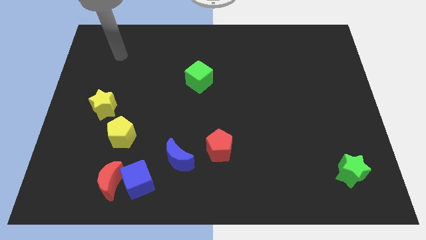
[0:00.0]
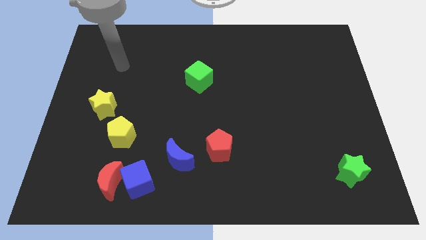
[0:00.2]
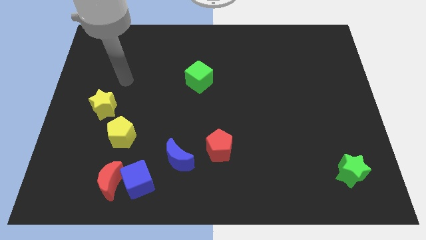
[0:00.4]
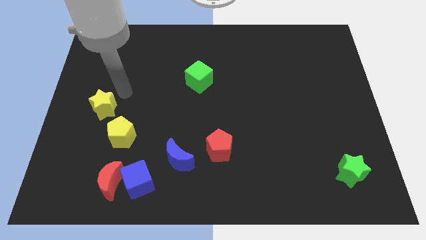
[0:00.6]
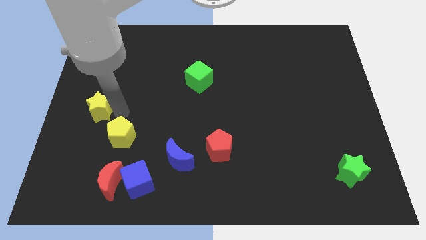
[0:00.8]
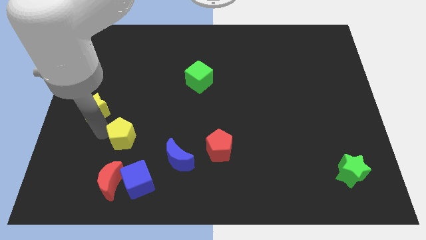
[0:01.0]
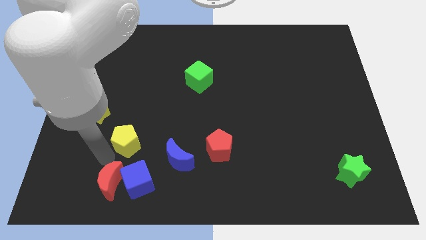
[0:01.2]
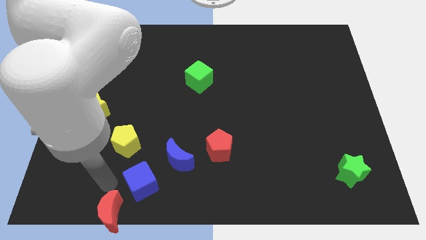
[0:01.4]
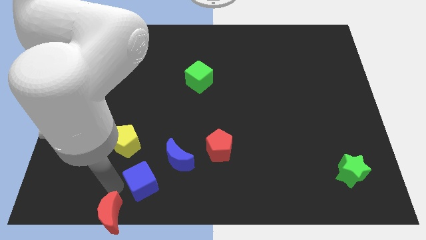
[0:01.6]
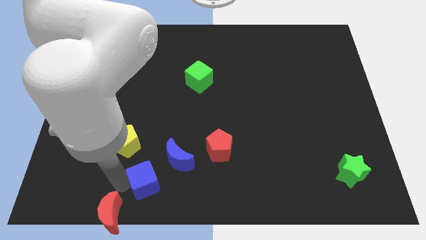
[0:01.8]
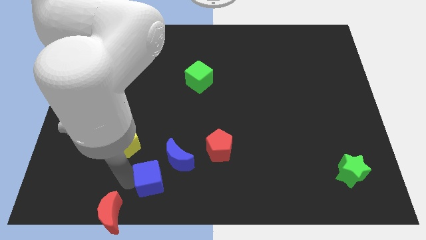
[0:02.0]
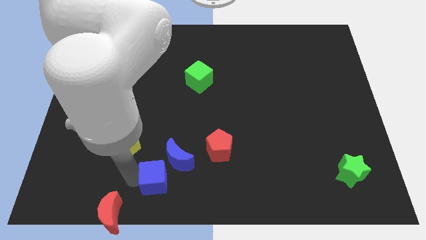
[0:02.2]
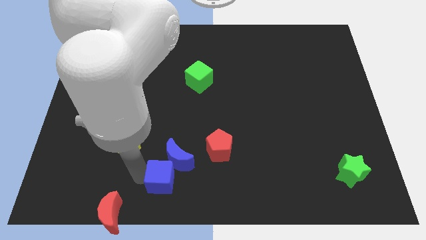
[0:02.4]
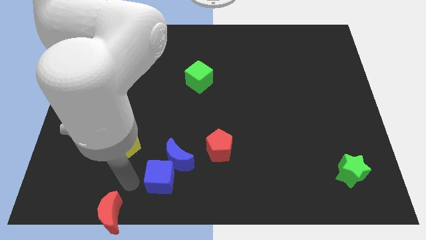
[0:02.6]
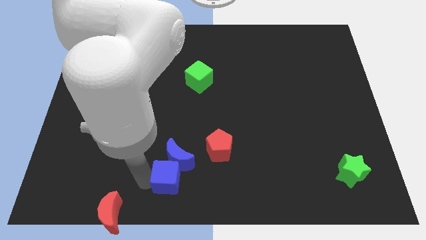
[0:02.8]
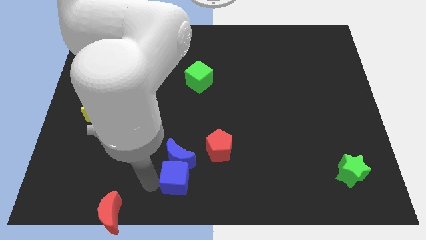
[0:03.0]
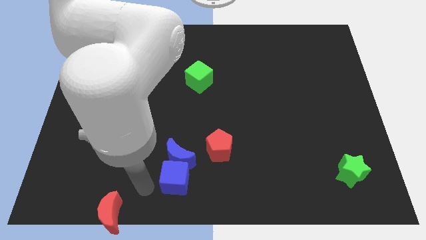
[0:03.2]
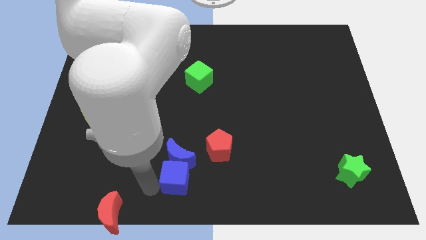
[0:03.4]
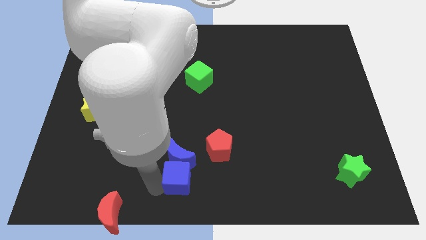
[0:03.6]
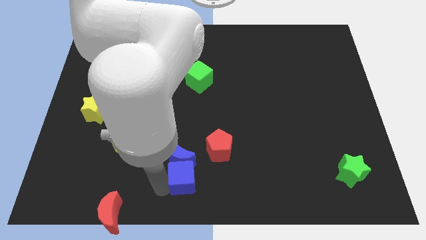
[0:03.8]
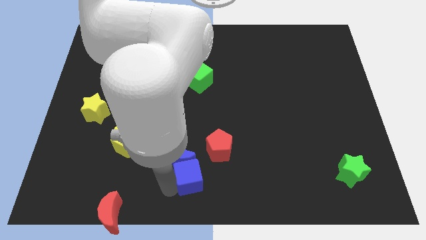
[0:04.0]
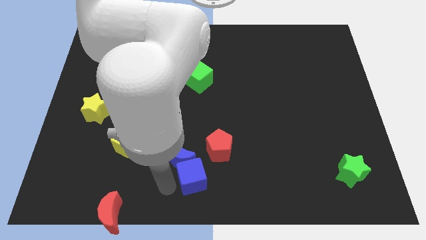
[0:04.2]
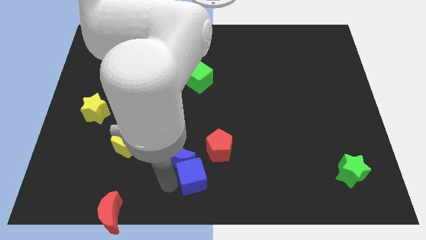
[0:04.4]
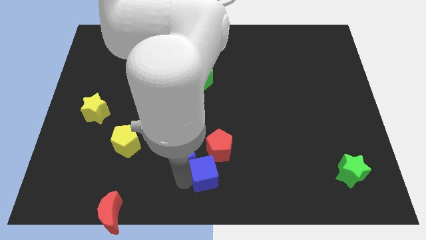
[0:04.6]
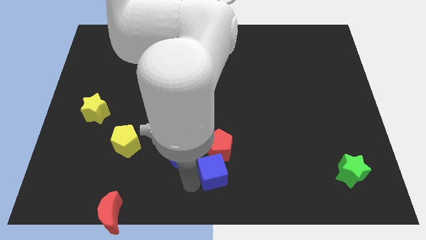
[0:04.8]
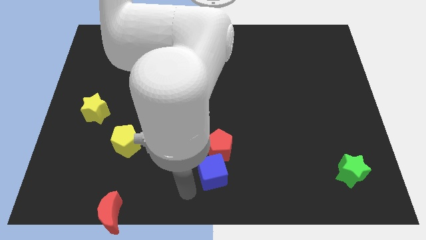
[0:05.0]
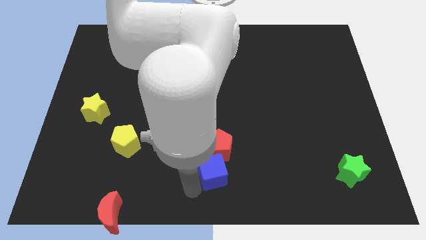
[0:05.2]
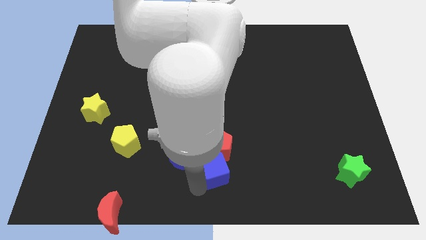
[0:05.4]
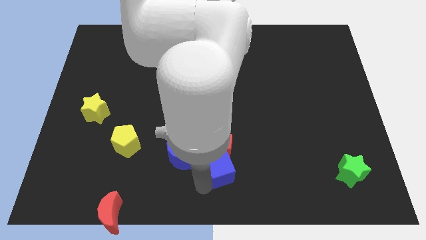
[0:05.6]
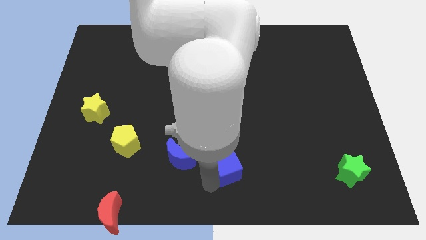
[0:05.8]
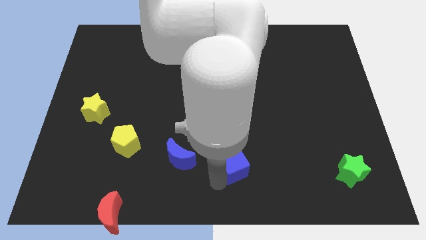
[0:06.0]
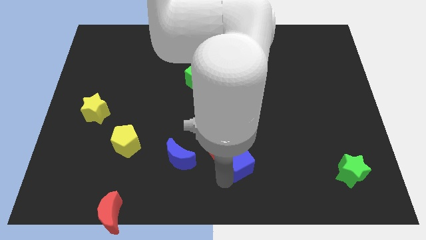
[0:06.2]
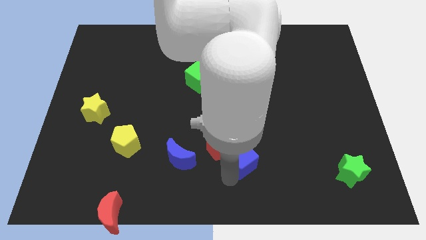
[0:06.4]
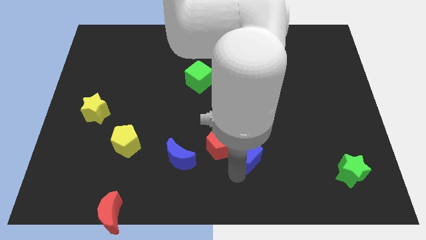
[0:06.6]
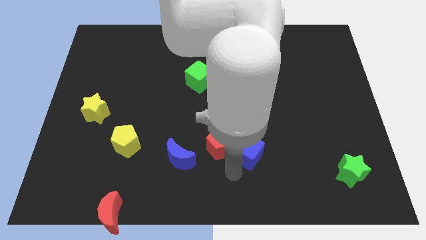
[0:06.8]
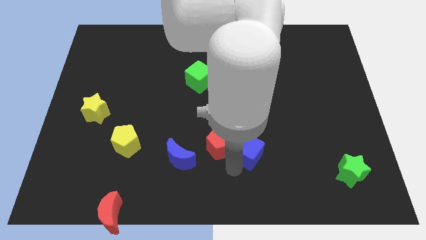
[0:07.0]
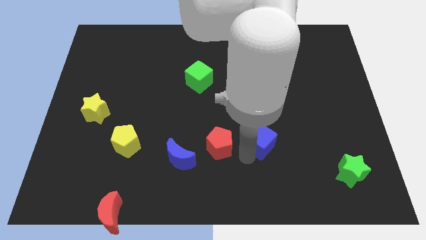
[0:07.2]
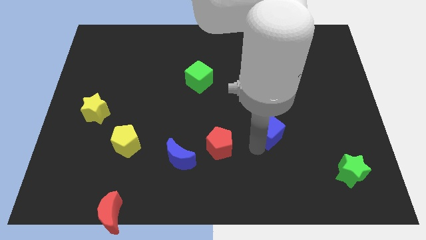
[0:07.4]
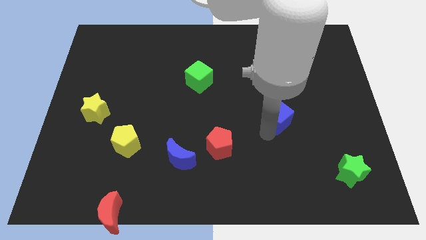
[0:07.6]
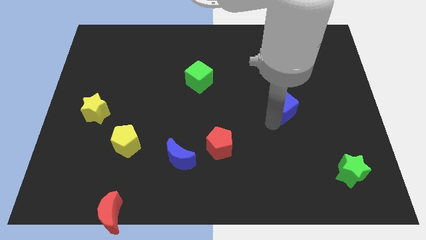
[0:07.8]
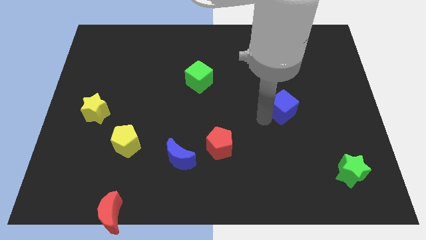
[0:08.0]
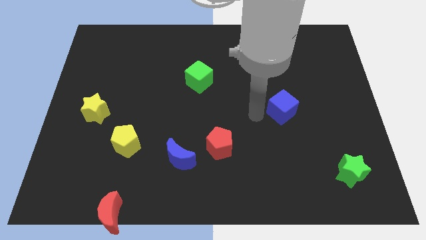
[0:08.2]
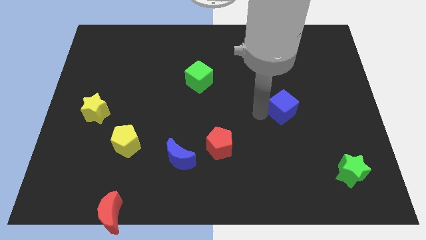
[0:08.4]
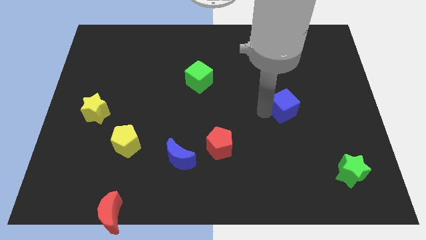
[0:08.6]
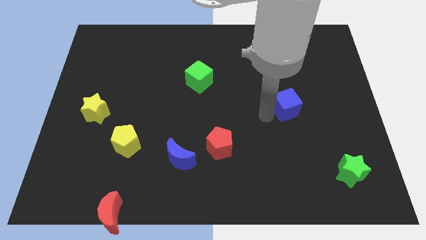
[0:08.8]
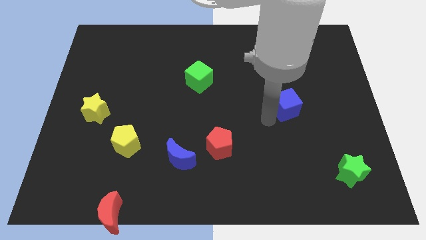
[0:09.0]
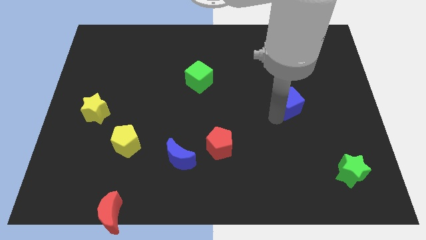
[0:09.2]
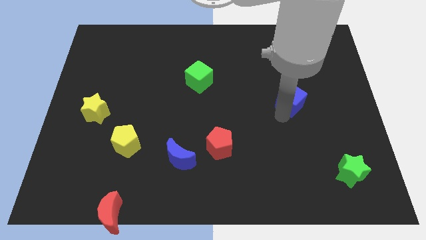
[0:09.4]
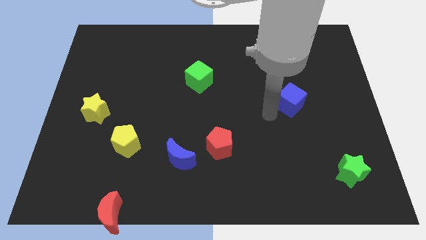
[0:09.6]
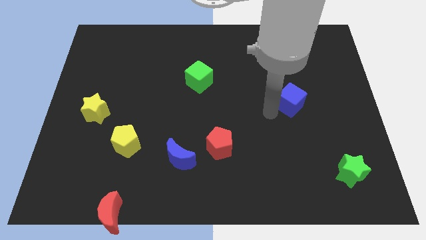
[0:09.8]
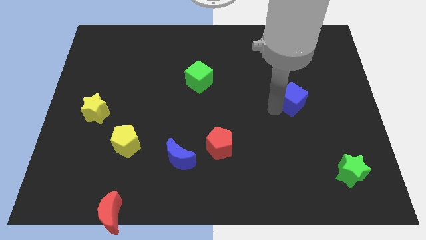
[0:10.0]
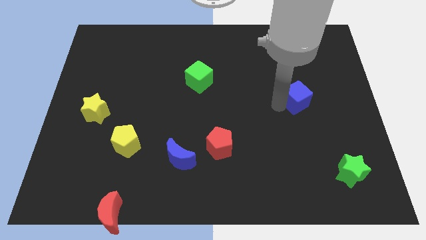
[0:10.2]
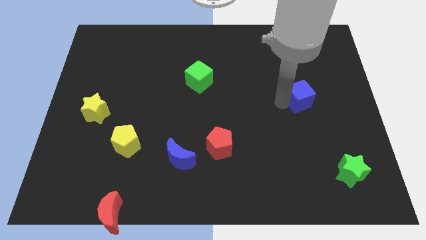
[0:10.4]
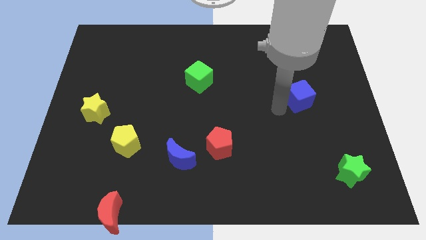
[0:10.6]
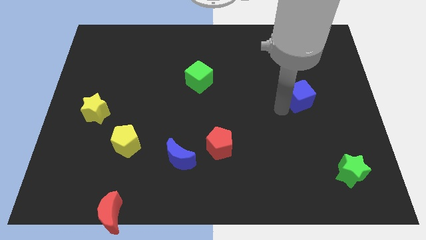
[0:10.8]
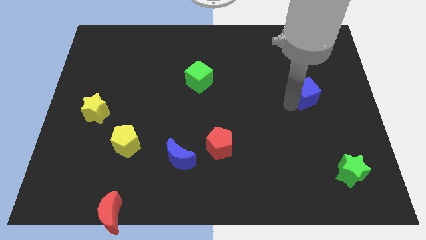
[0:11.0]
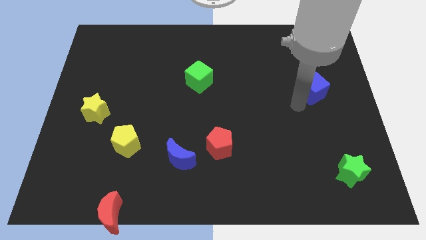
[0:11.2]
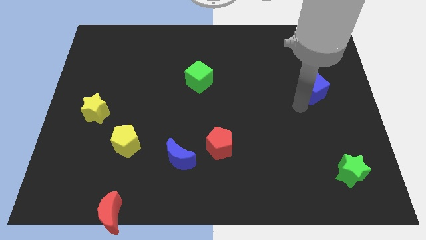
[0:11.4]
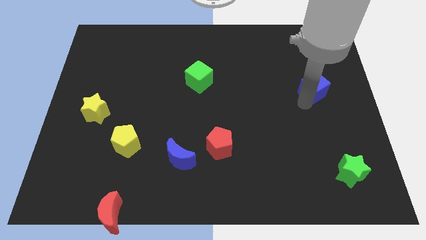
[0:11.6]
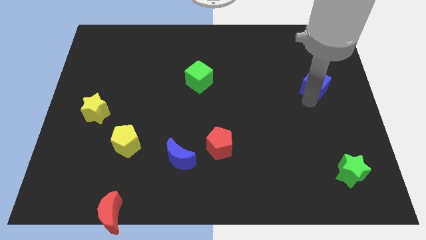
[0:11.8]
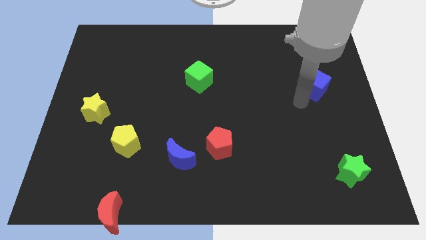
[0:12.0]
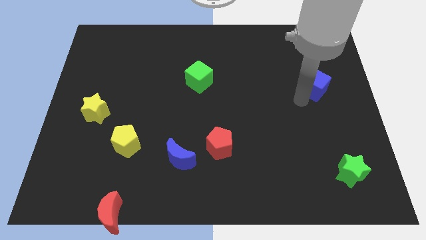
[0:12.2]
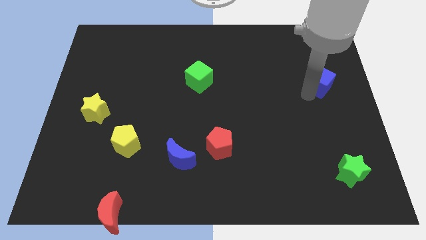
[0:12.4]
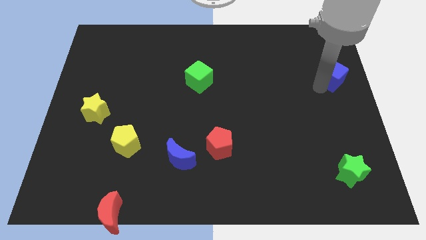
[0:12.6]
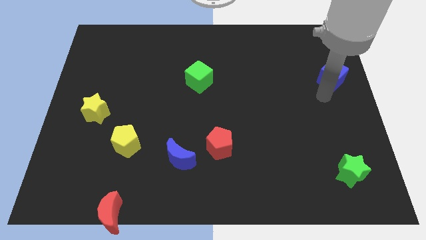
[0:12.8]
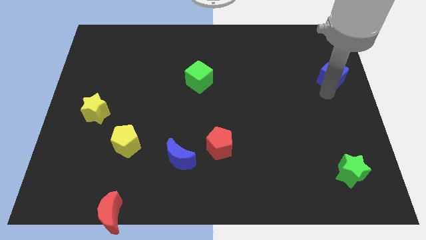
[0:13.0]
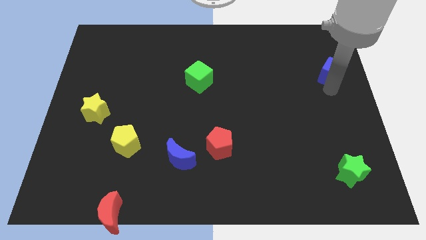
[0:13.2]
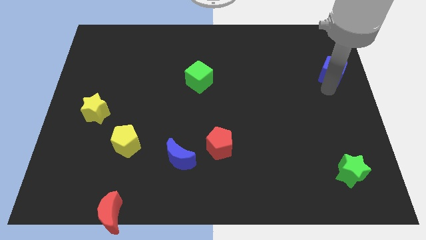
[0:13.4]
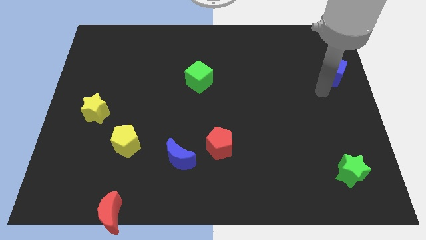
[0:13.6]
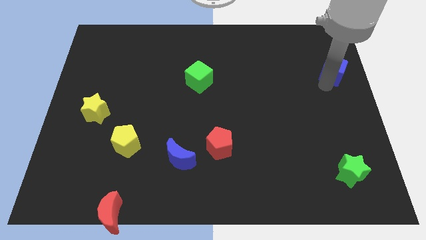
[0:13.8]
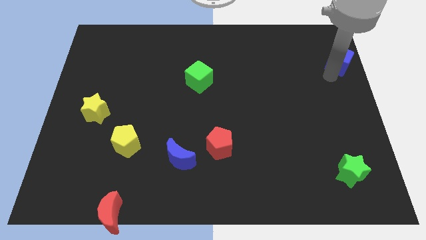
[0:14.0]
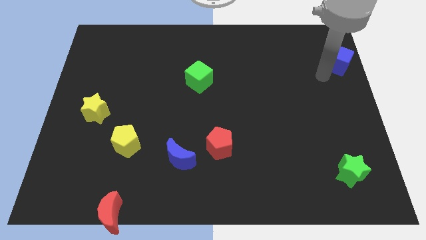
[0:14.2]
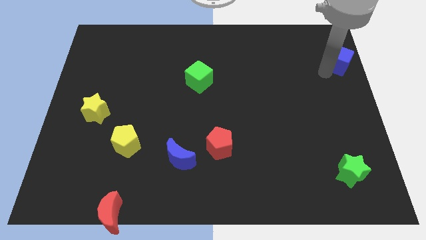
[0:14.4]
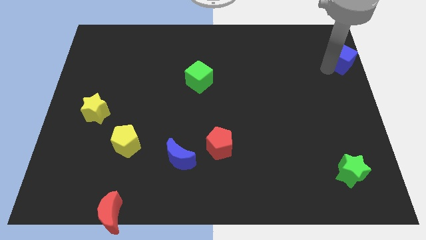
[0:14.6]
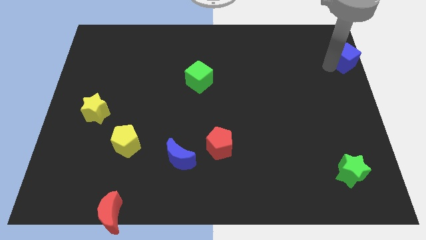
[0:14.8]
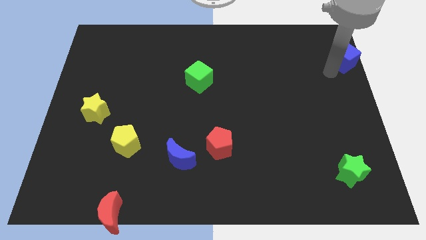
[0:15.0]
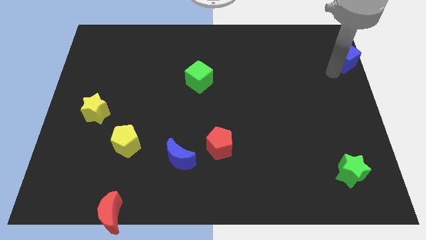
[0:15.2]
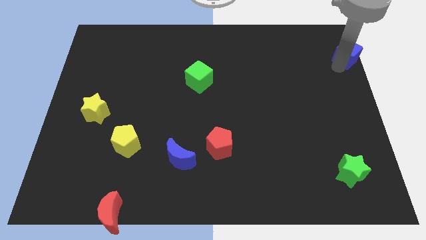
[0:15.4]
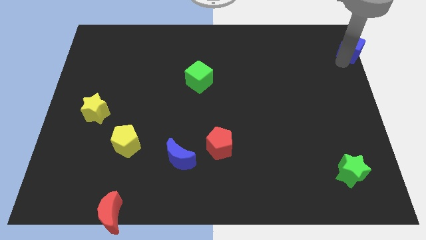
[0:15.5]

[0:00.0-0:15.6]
slide the blue cube to the top right corner
